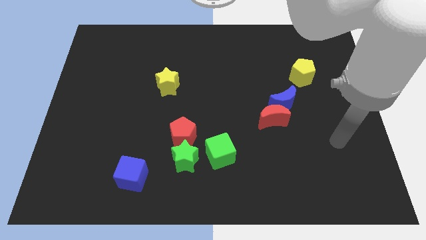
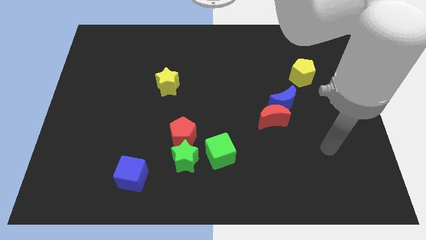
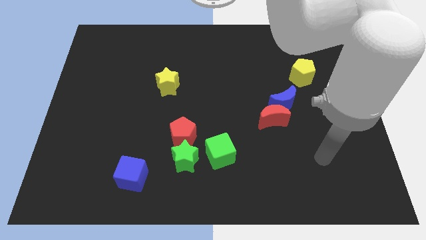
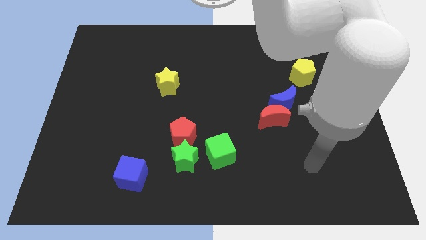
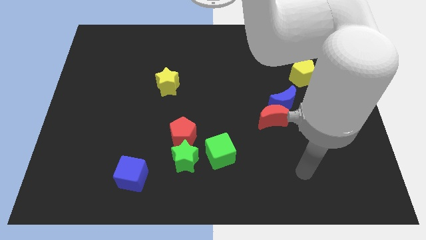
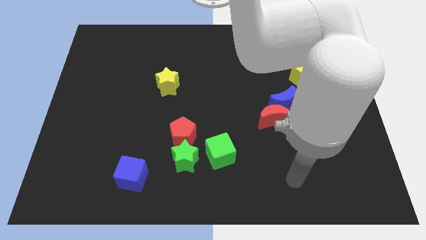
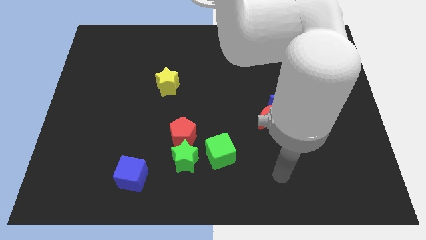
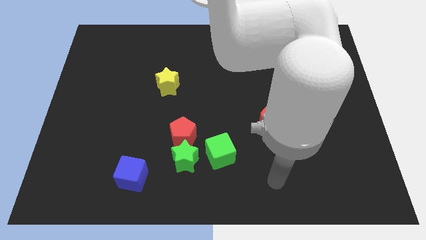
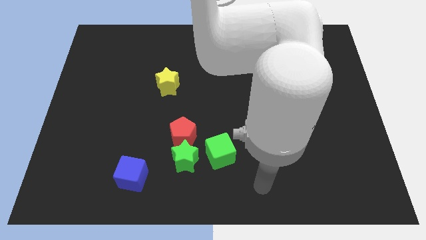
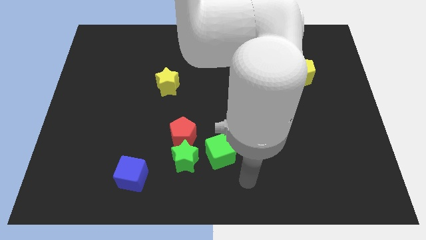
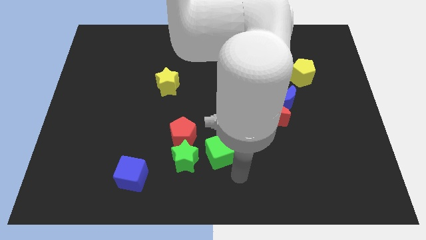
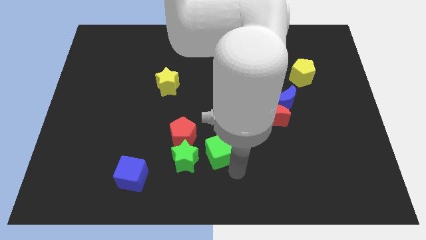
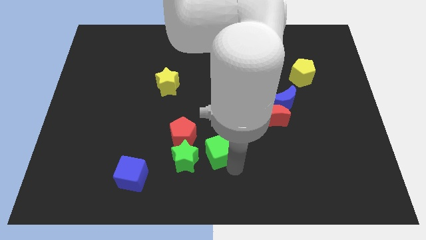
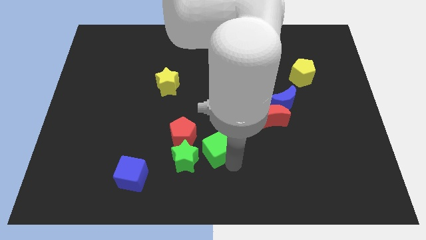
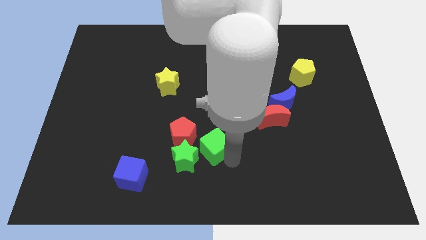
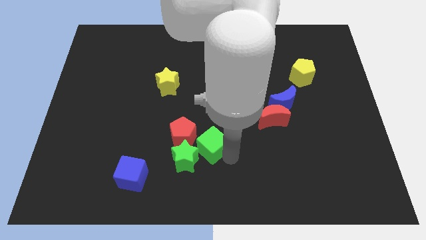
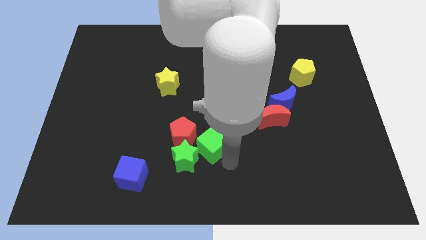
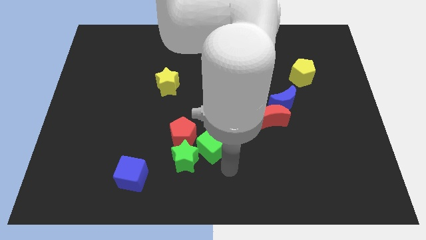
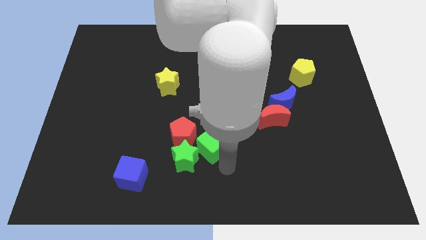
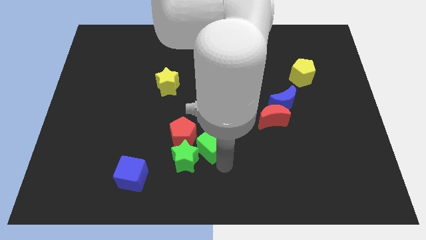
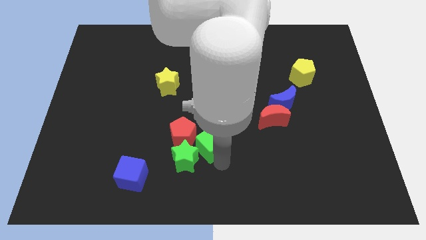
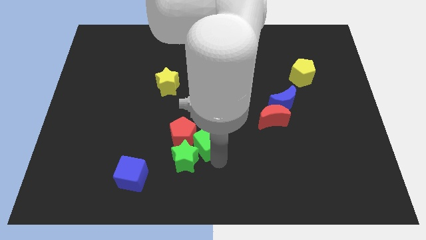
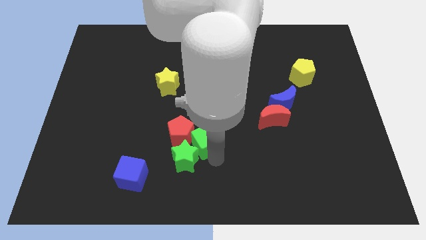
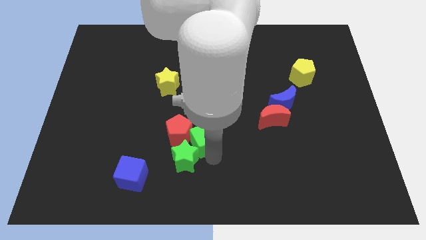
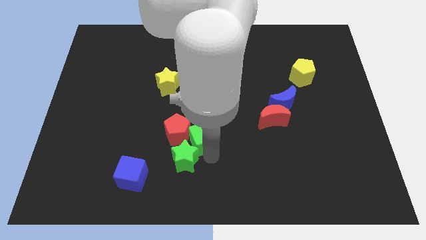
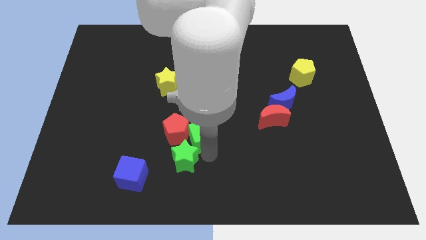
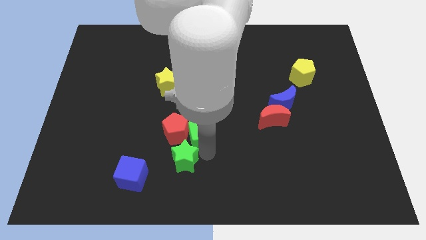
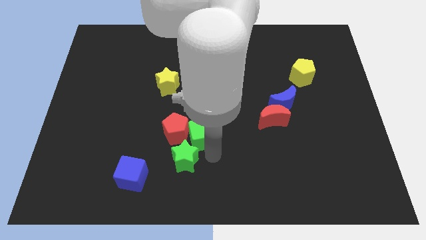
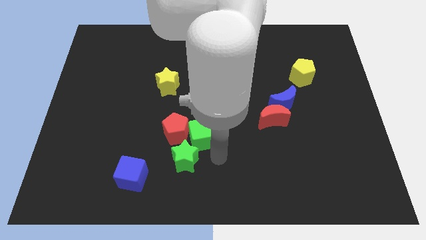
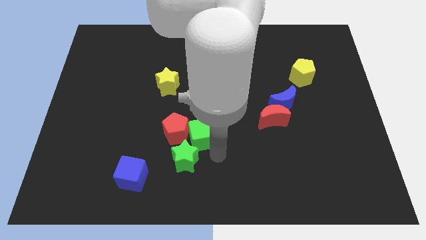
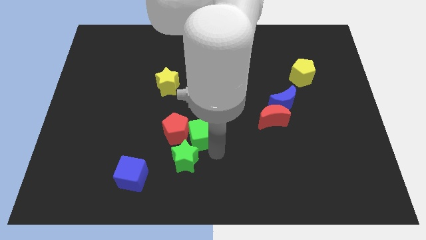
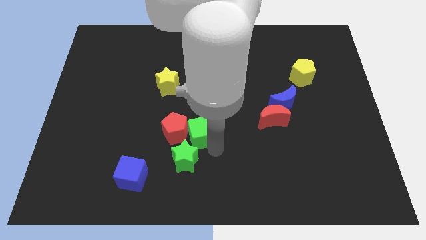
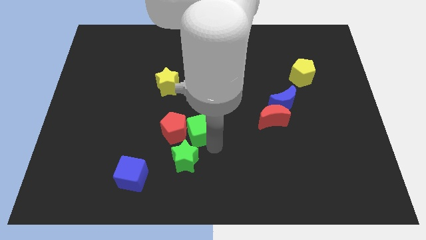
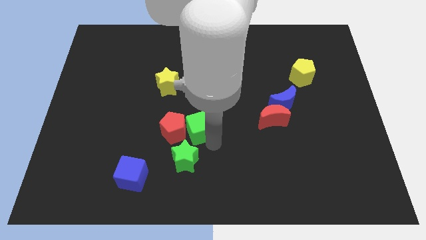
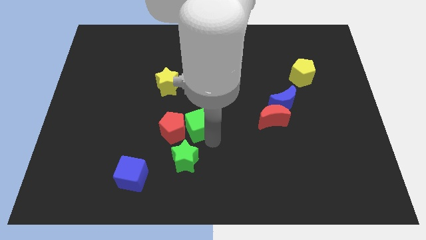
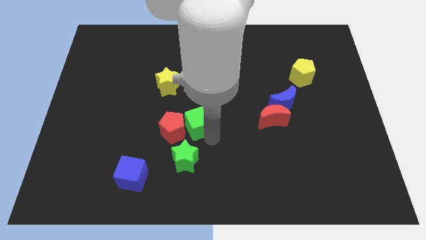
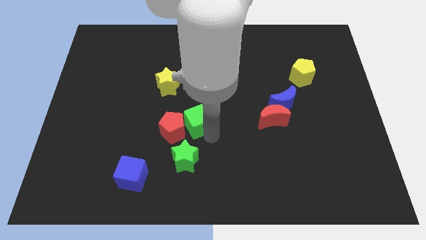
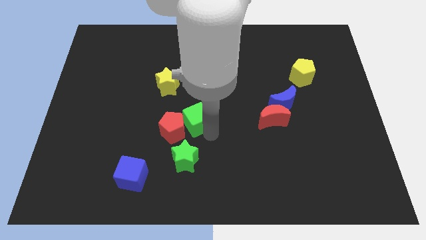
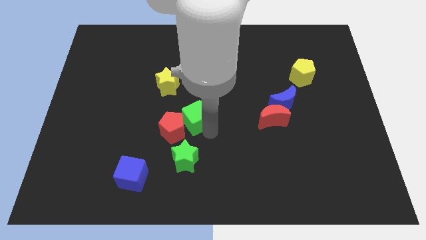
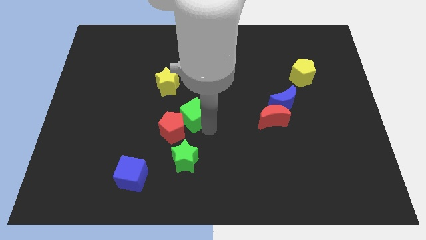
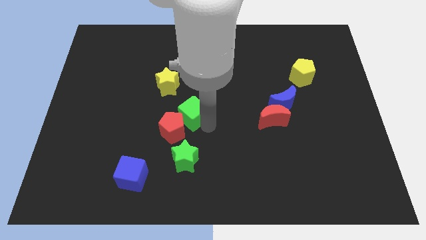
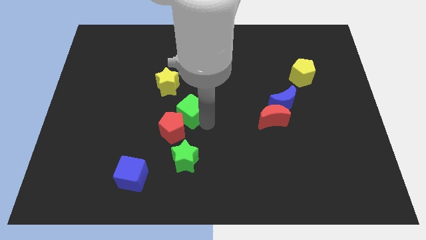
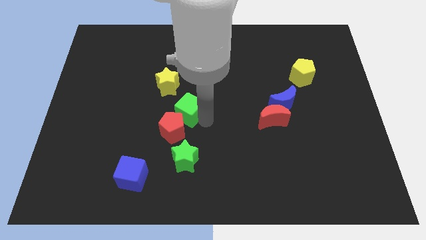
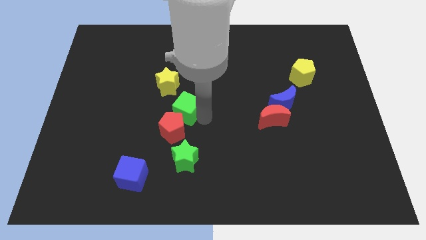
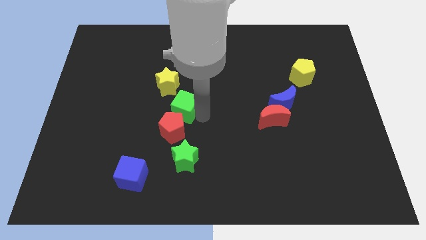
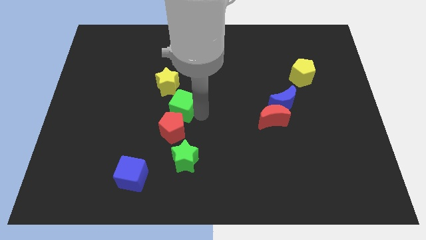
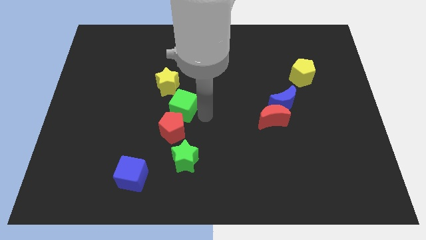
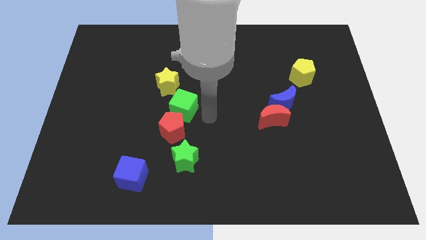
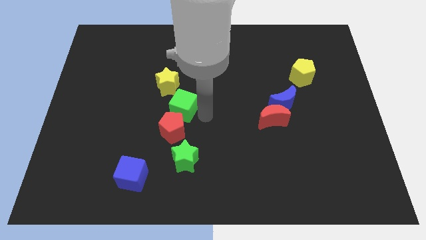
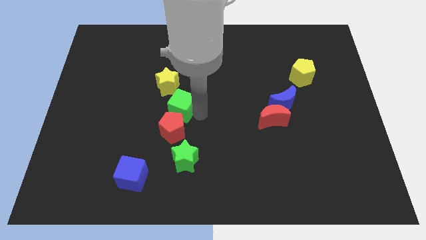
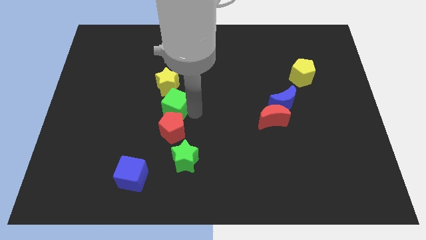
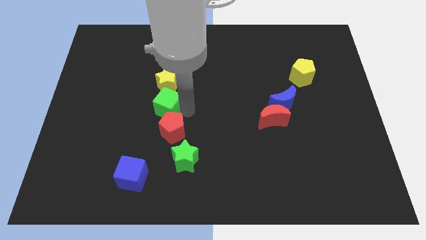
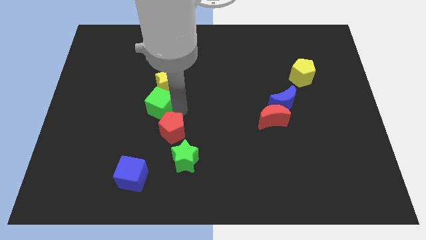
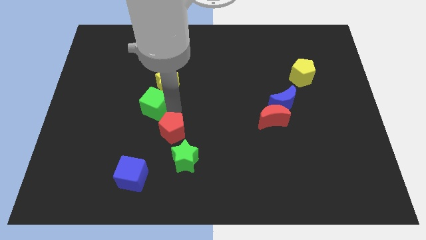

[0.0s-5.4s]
slide the green cube upwards and then left

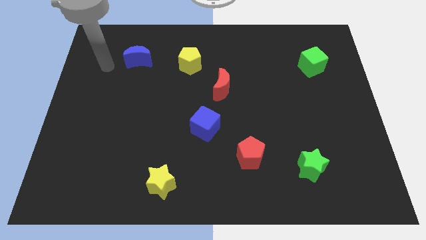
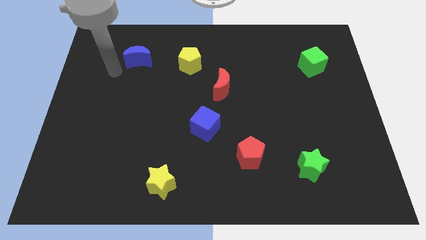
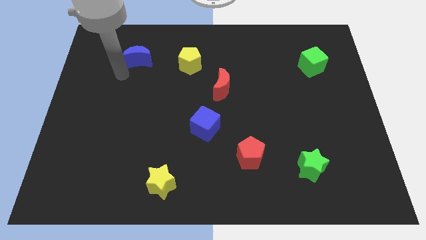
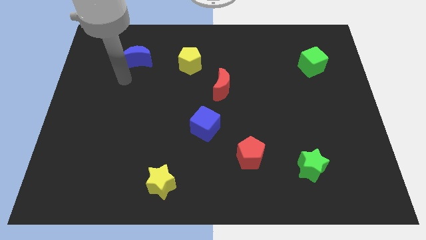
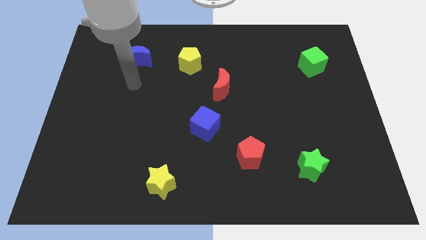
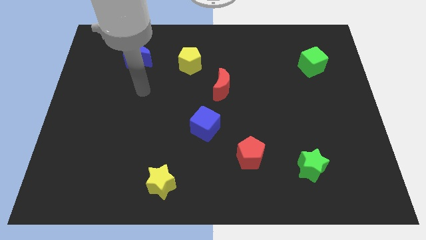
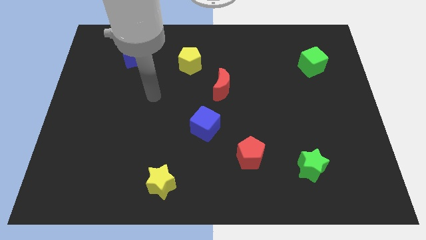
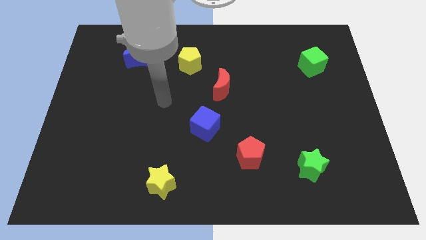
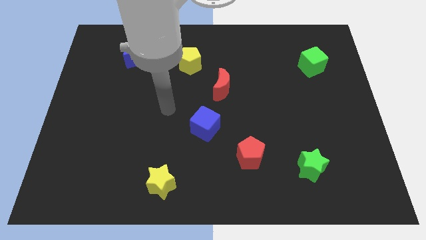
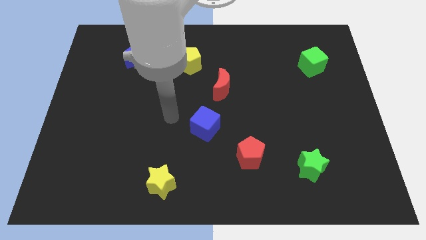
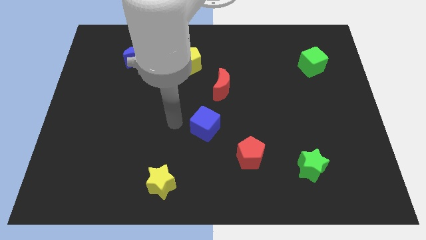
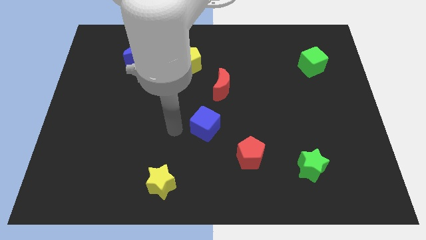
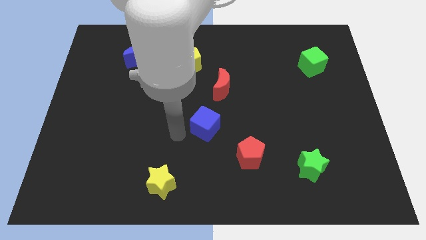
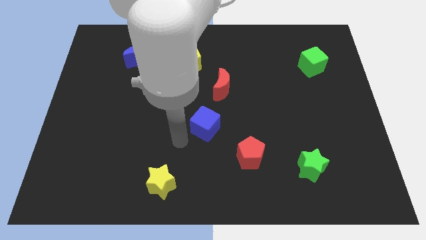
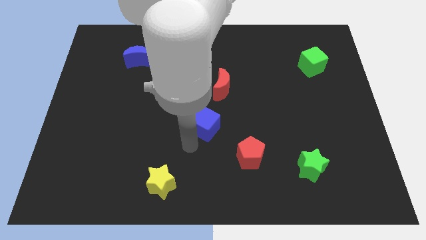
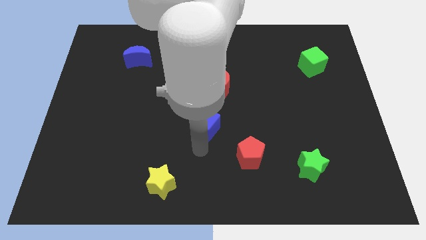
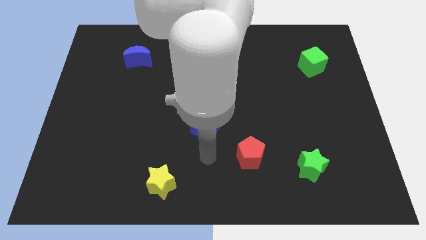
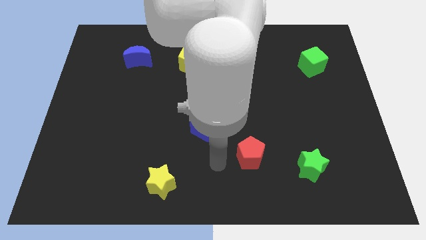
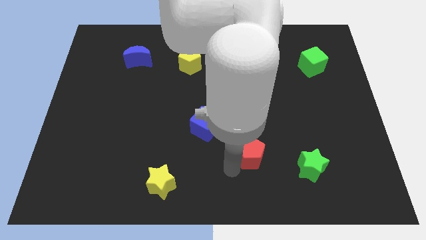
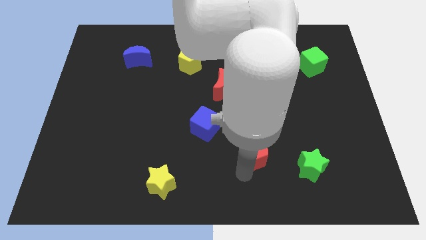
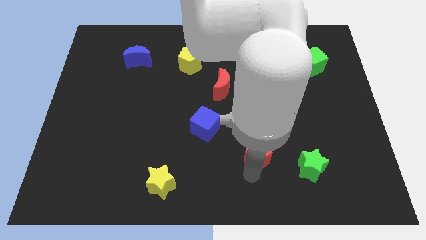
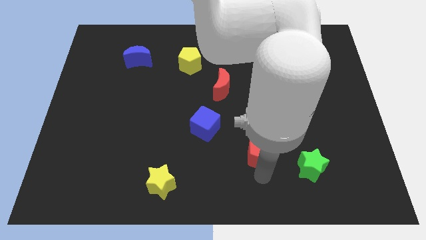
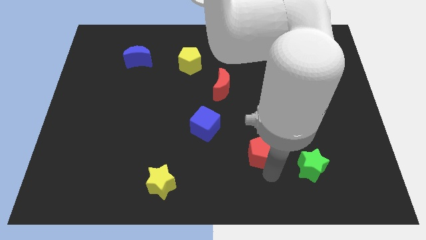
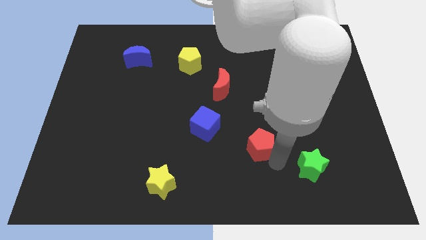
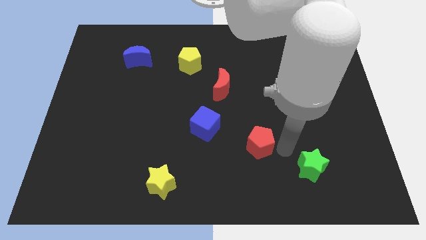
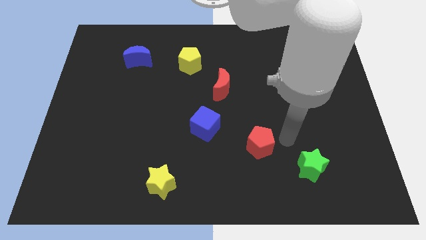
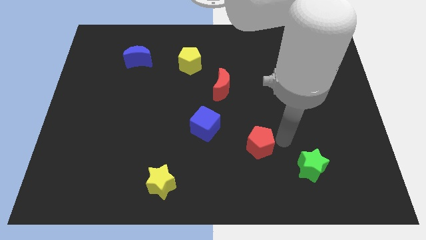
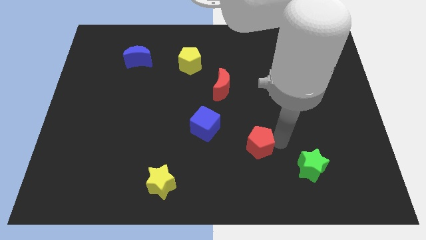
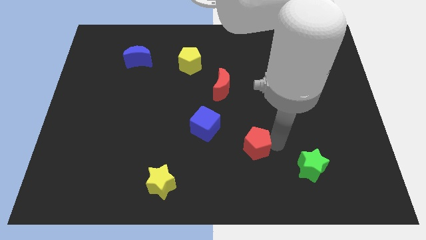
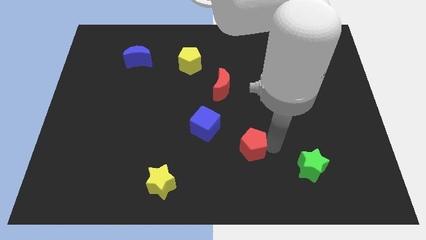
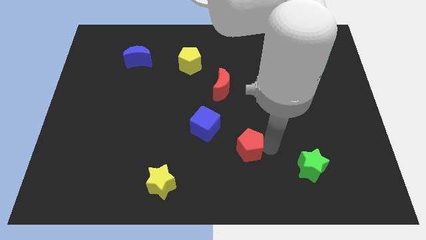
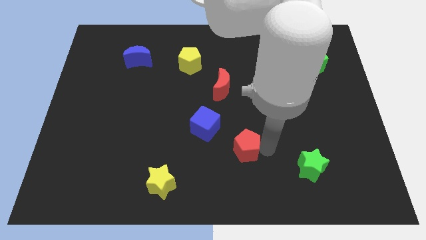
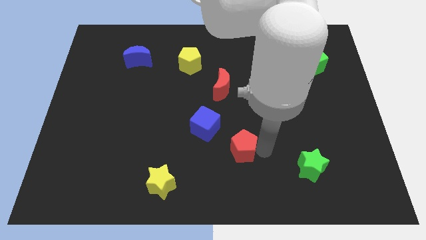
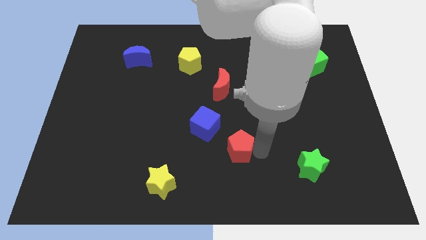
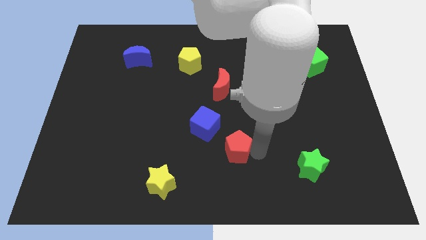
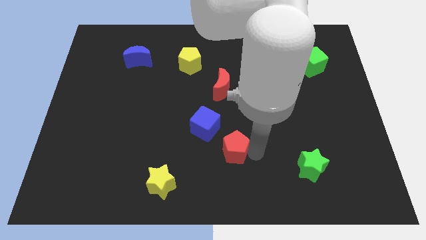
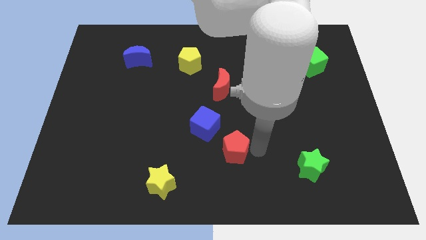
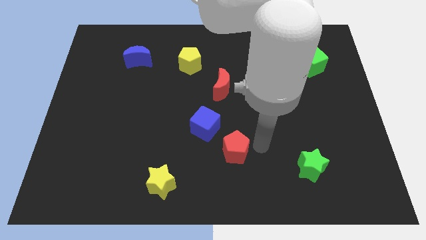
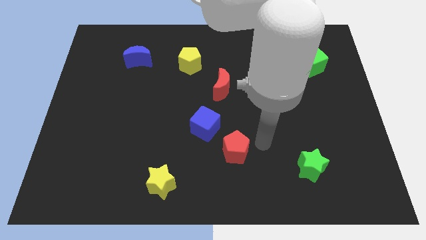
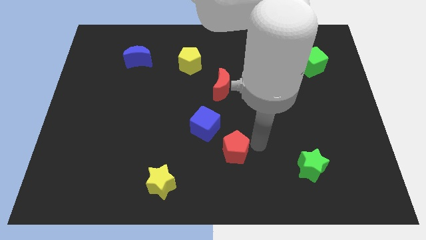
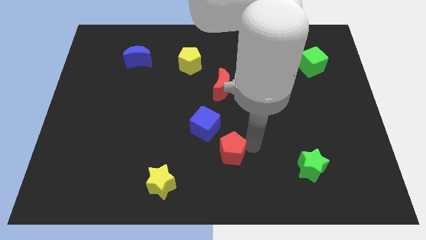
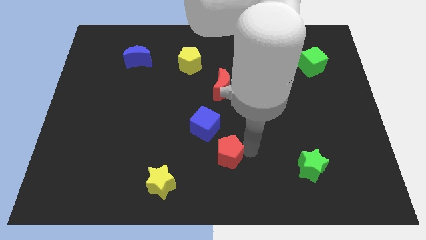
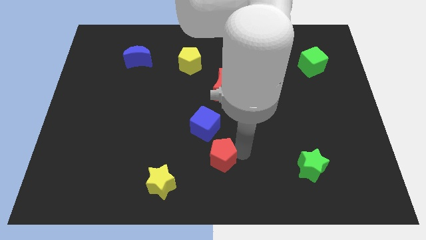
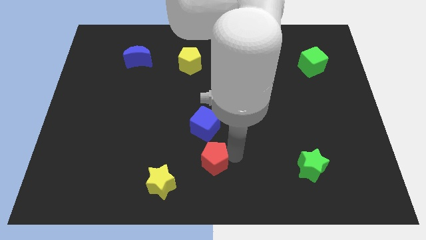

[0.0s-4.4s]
slightly push the red pentagon to the left
